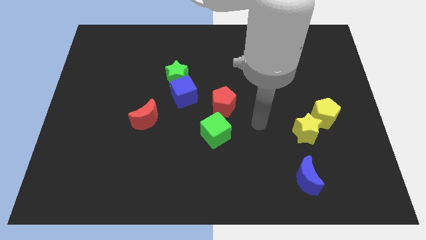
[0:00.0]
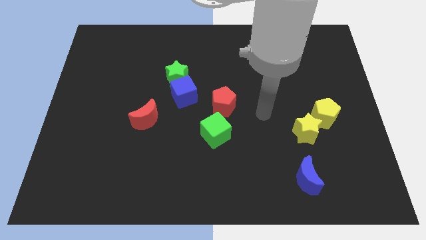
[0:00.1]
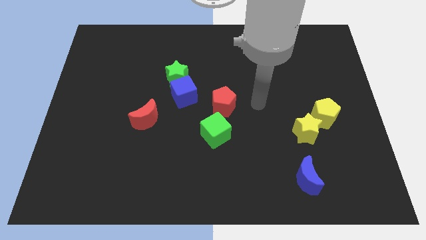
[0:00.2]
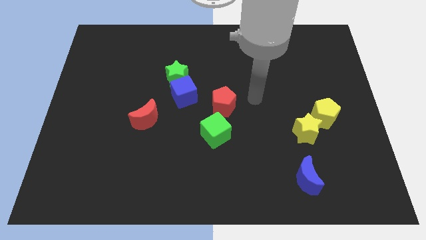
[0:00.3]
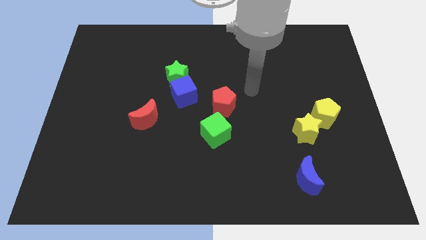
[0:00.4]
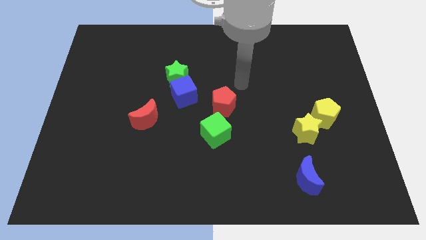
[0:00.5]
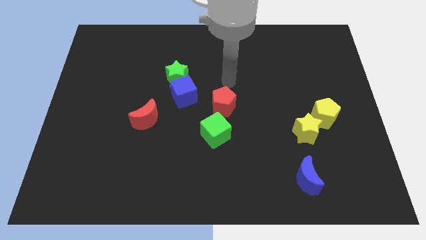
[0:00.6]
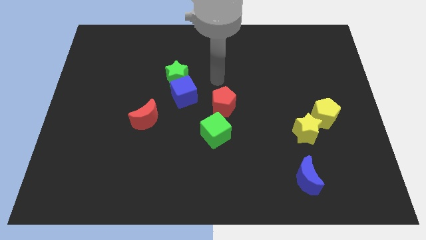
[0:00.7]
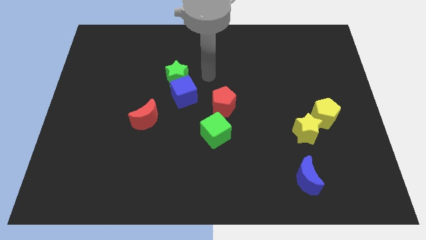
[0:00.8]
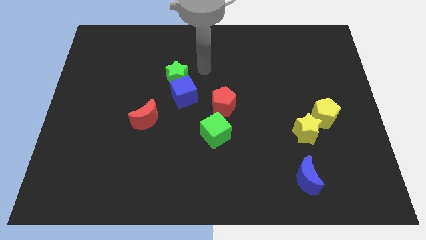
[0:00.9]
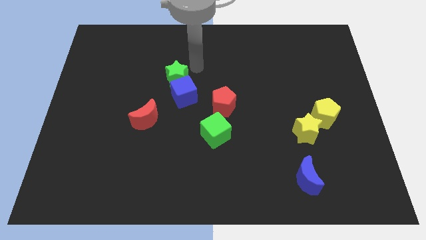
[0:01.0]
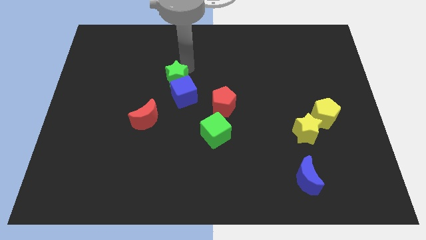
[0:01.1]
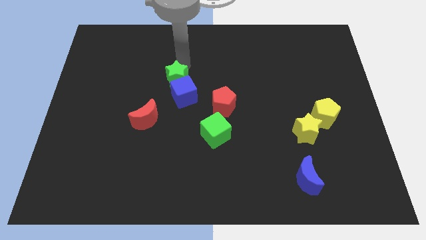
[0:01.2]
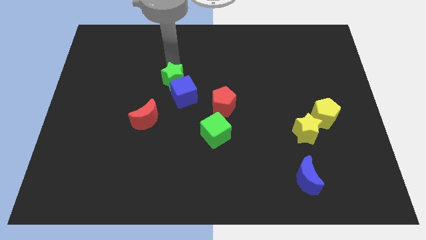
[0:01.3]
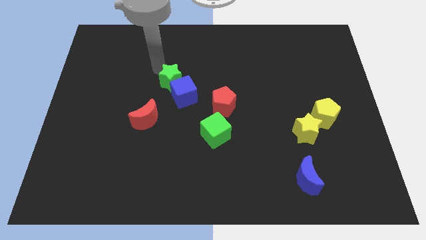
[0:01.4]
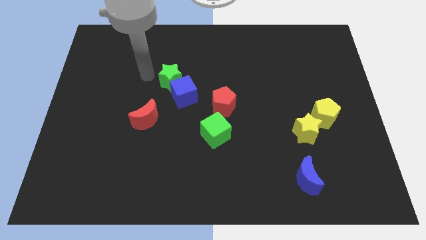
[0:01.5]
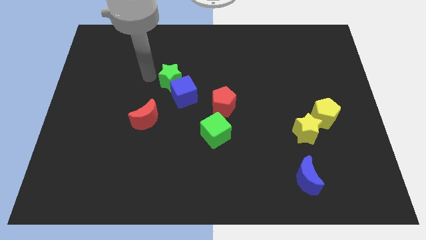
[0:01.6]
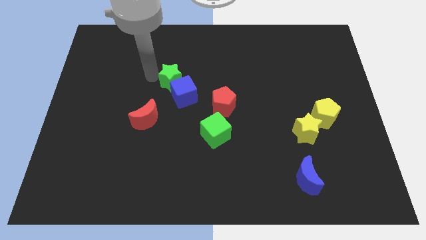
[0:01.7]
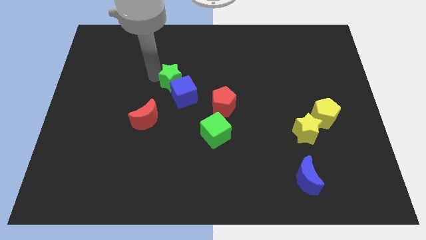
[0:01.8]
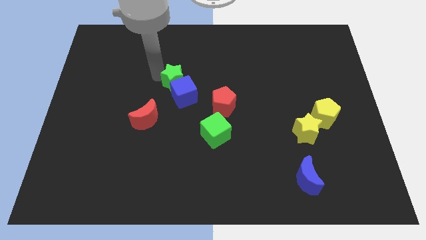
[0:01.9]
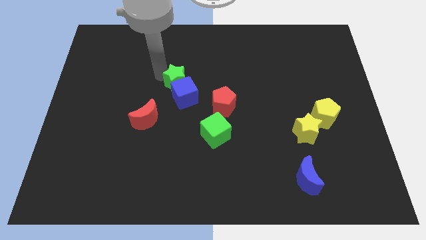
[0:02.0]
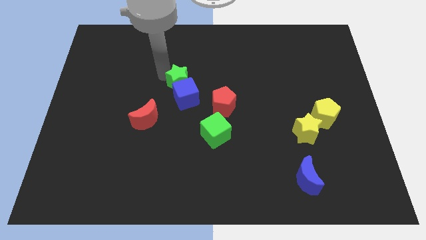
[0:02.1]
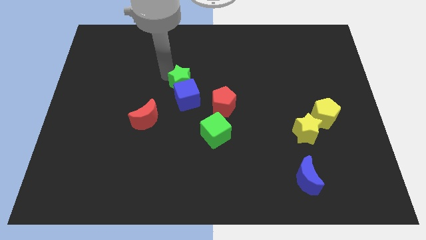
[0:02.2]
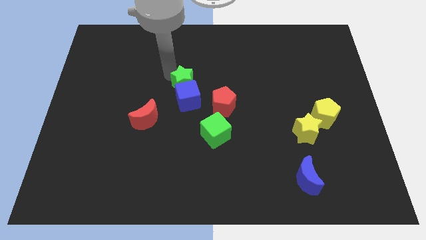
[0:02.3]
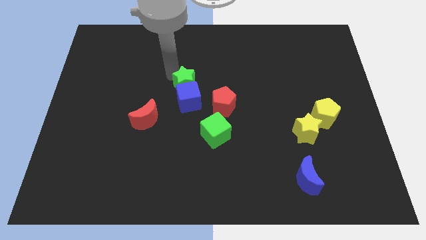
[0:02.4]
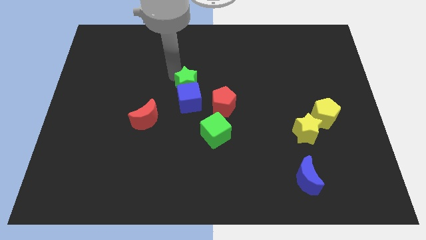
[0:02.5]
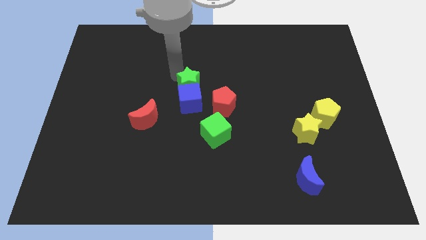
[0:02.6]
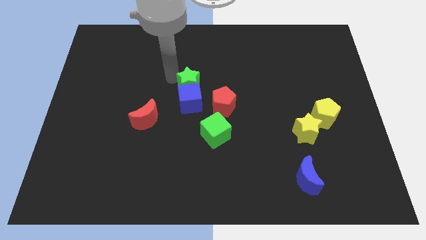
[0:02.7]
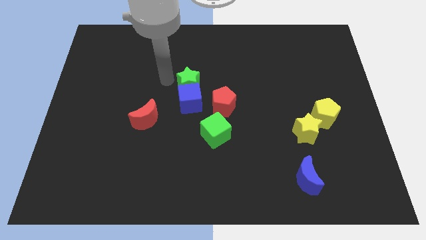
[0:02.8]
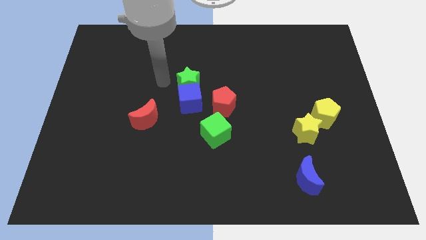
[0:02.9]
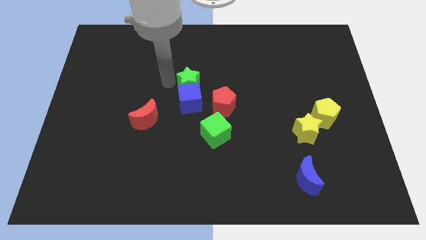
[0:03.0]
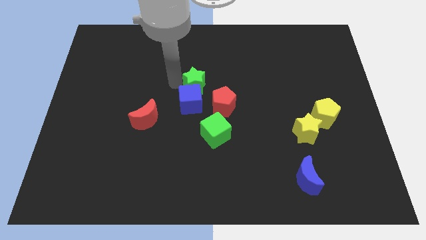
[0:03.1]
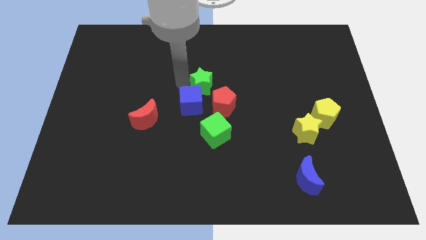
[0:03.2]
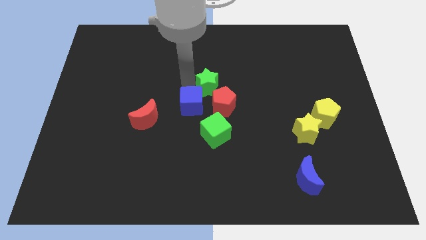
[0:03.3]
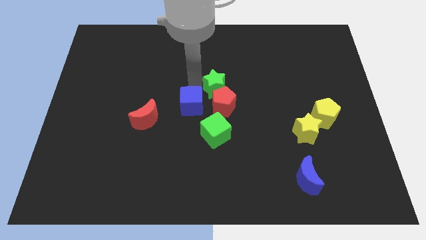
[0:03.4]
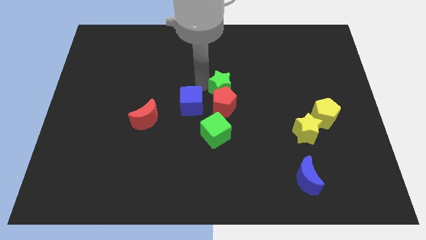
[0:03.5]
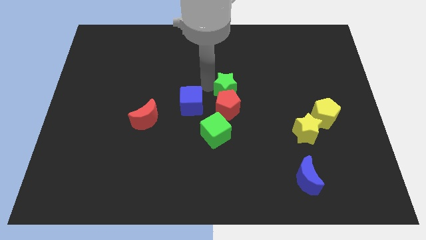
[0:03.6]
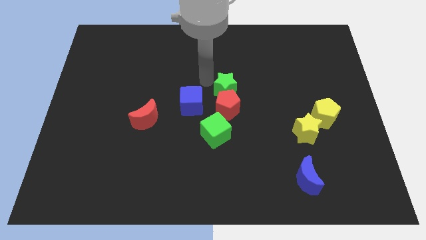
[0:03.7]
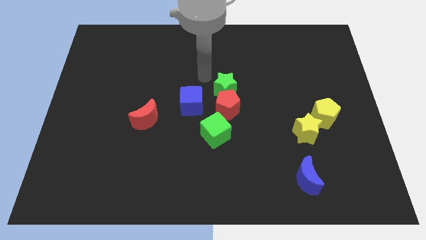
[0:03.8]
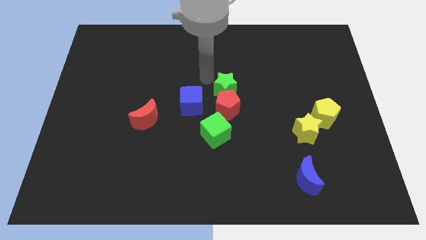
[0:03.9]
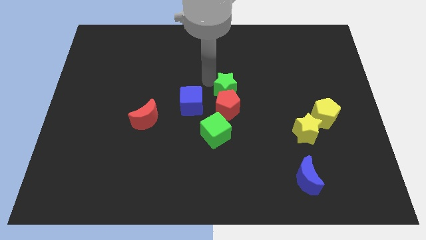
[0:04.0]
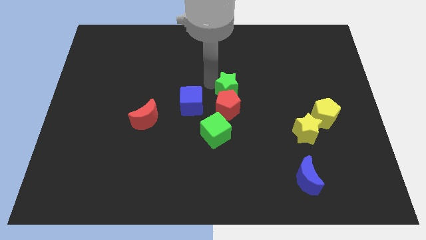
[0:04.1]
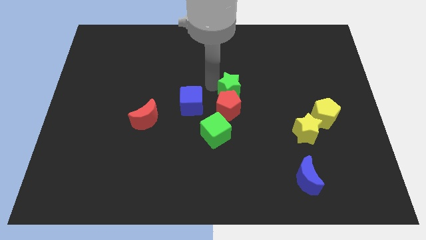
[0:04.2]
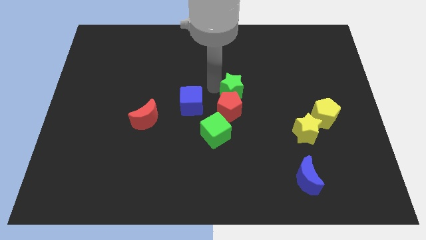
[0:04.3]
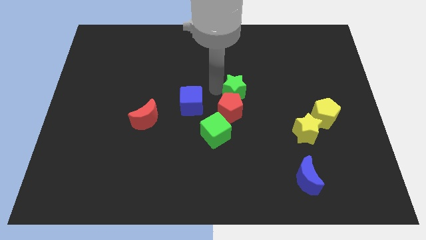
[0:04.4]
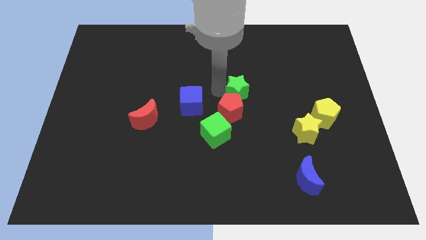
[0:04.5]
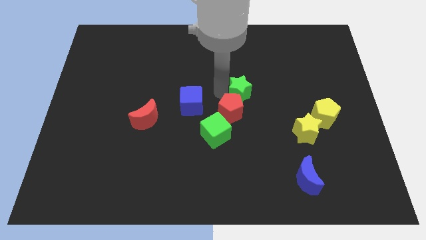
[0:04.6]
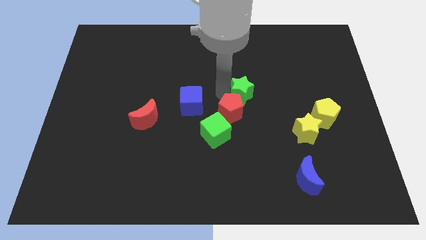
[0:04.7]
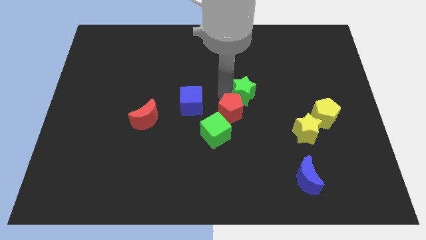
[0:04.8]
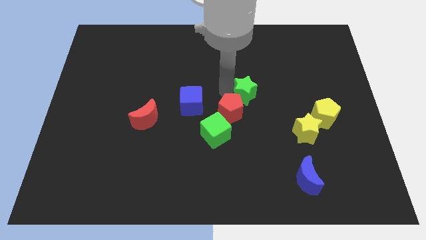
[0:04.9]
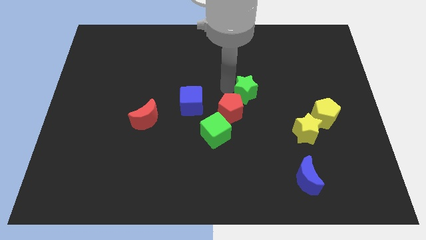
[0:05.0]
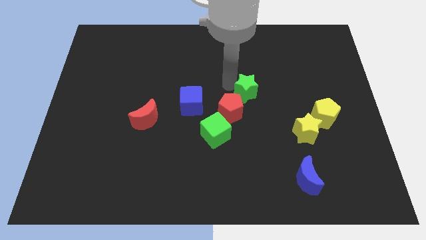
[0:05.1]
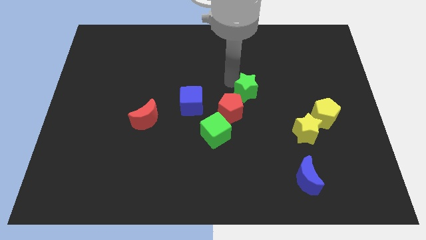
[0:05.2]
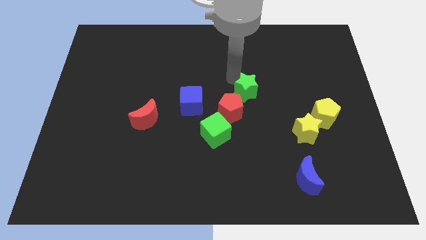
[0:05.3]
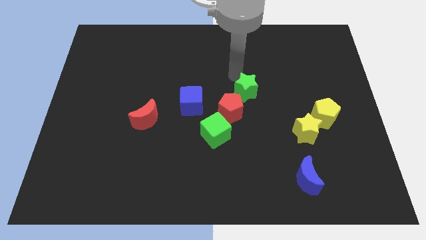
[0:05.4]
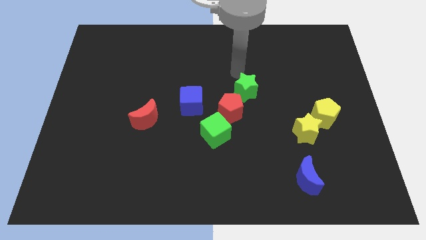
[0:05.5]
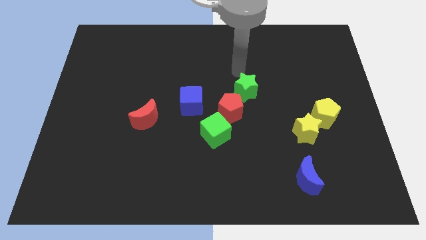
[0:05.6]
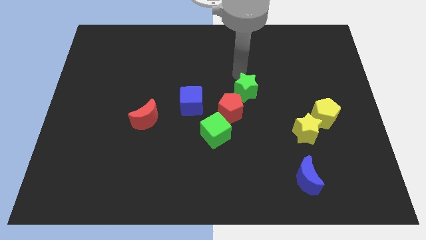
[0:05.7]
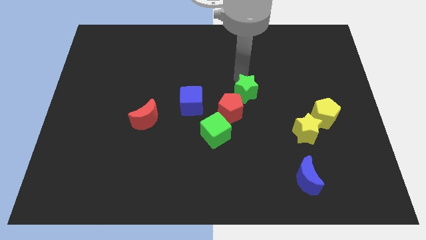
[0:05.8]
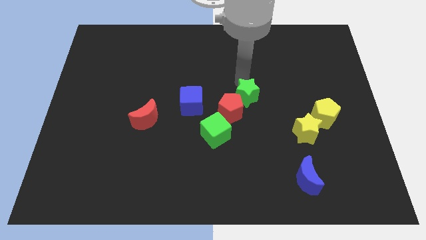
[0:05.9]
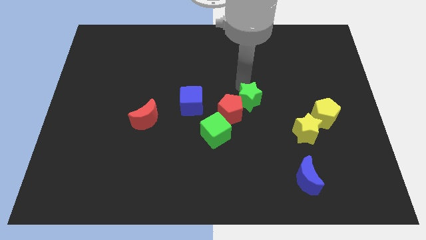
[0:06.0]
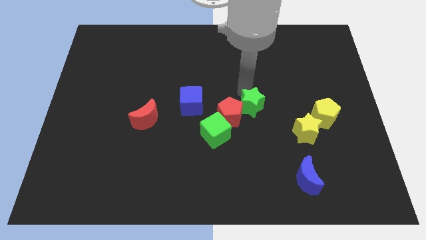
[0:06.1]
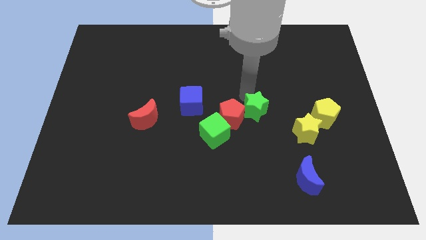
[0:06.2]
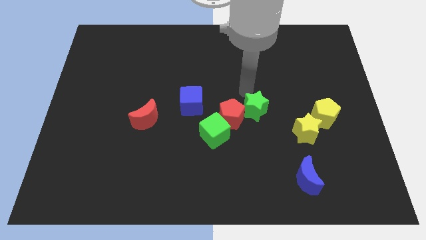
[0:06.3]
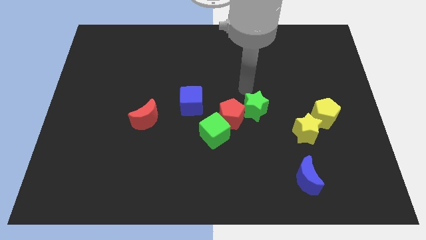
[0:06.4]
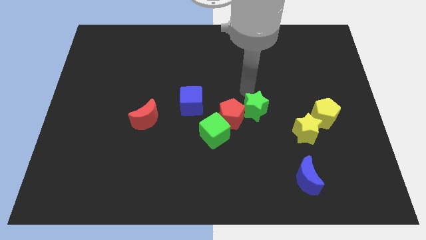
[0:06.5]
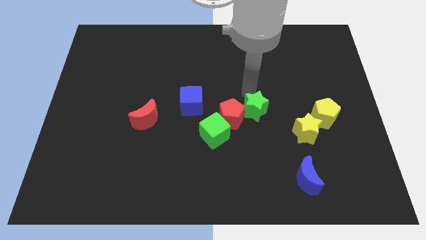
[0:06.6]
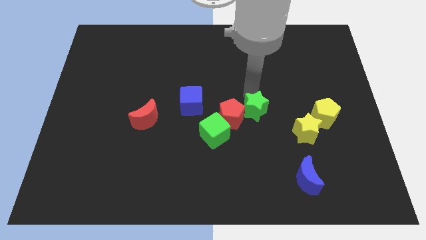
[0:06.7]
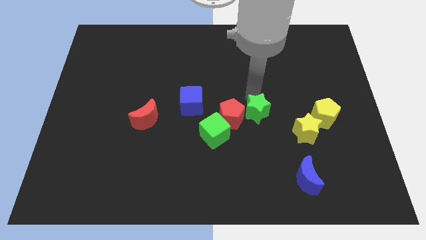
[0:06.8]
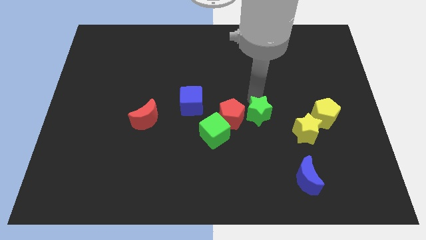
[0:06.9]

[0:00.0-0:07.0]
slide the green star down and then right

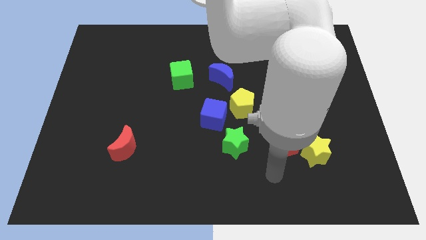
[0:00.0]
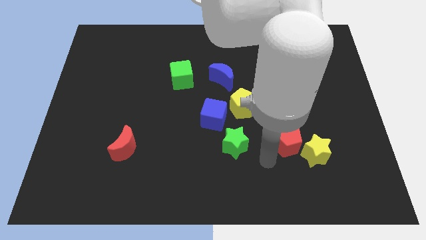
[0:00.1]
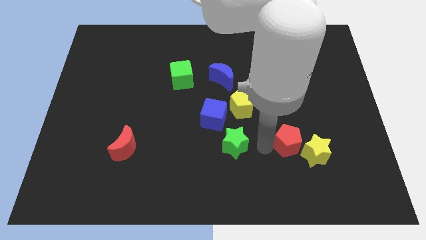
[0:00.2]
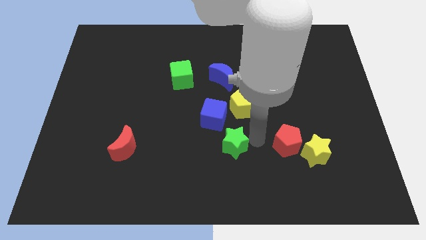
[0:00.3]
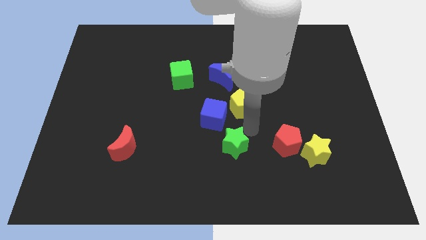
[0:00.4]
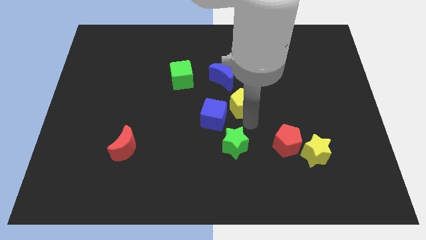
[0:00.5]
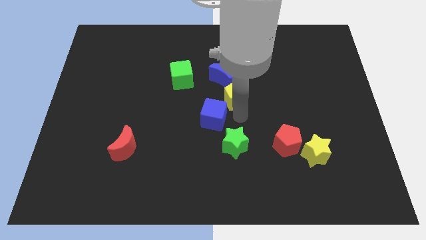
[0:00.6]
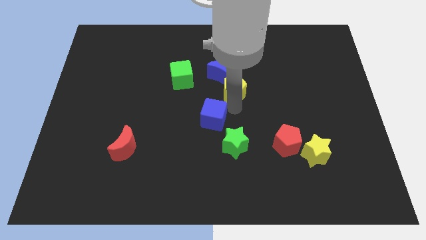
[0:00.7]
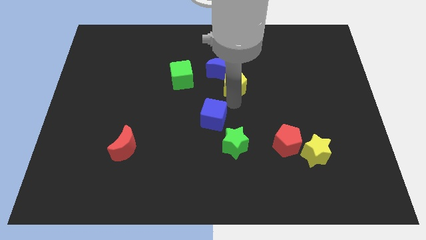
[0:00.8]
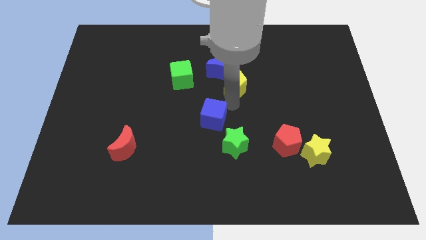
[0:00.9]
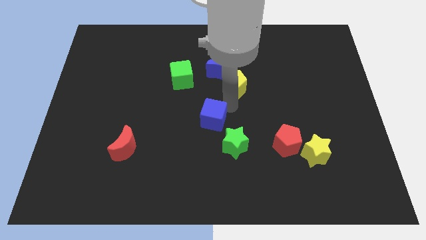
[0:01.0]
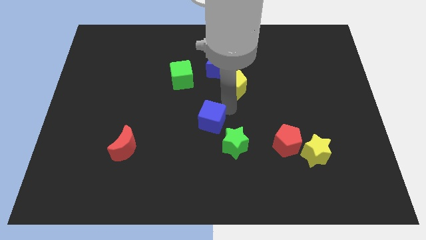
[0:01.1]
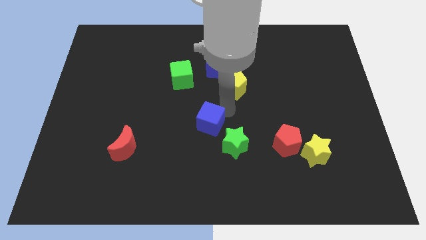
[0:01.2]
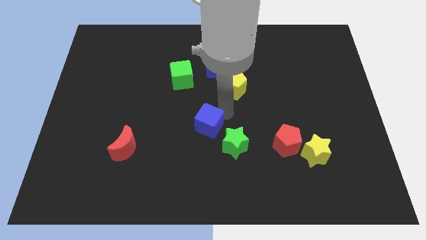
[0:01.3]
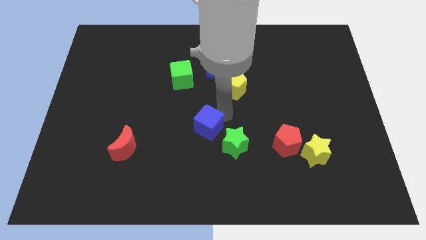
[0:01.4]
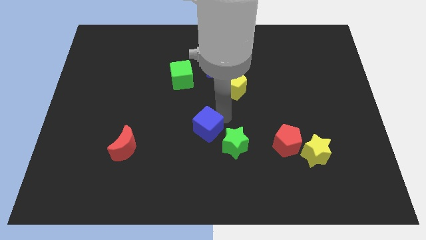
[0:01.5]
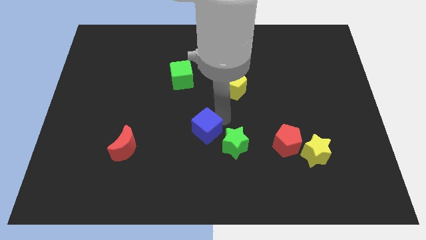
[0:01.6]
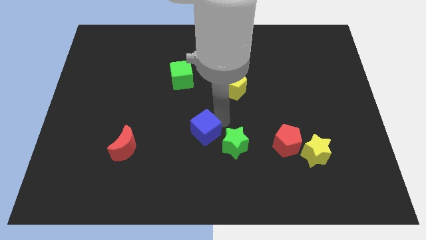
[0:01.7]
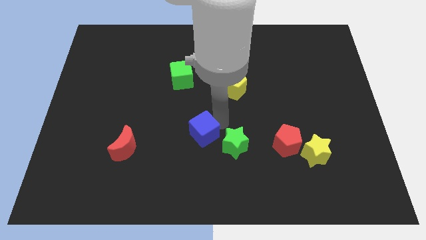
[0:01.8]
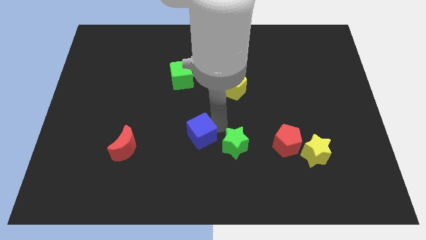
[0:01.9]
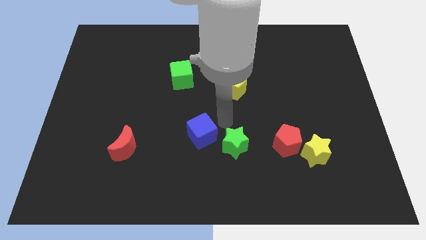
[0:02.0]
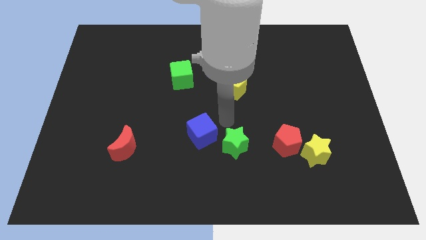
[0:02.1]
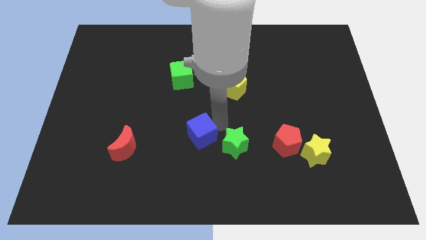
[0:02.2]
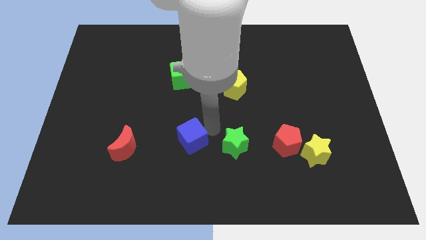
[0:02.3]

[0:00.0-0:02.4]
move the blue cube a little bit downwards and left diagonally
